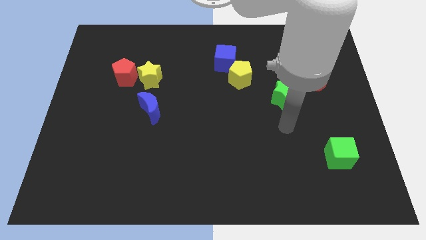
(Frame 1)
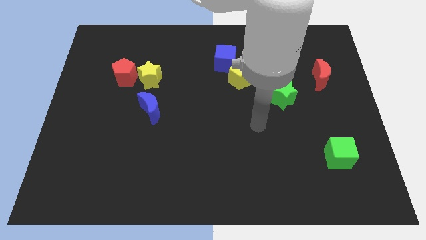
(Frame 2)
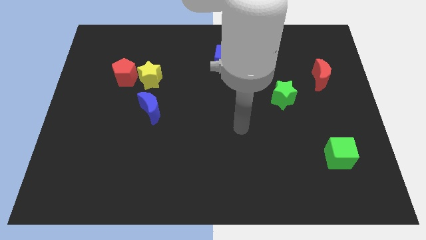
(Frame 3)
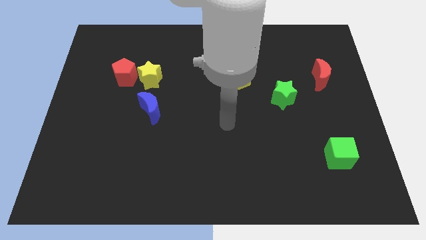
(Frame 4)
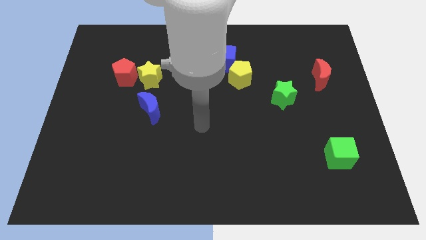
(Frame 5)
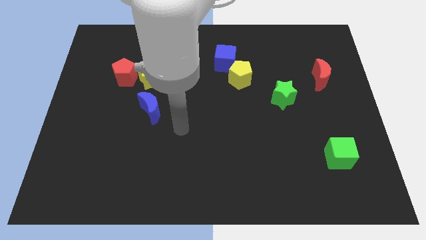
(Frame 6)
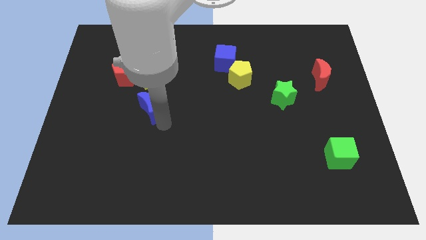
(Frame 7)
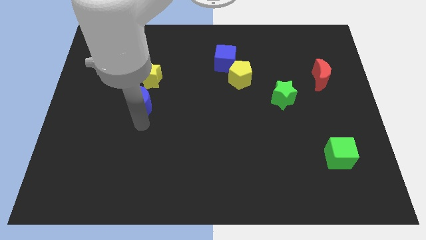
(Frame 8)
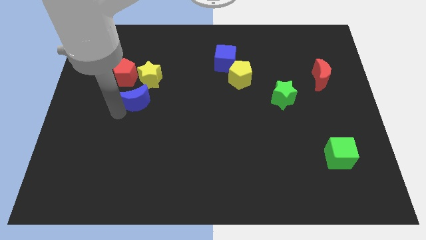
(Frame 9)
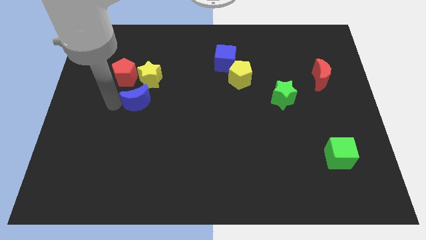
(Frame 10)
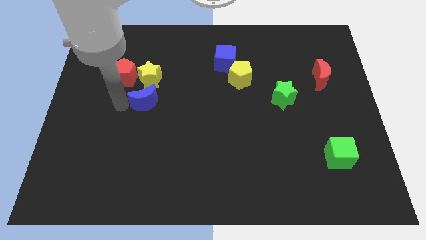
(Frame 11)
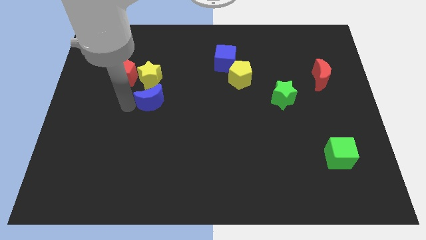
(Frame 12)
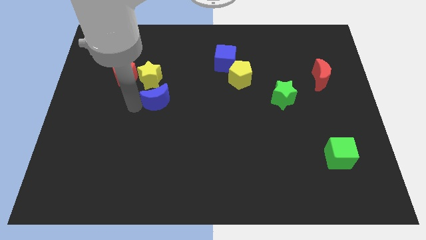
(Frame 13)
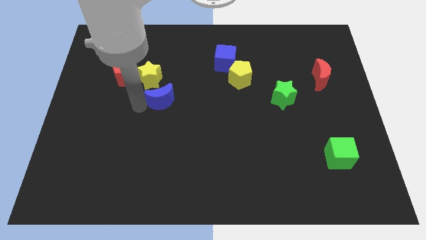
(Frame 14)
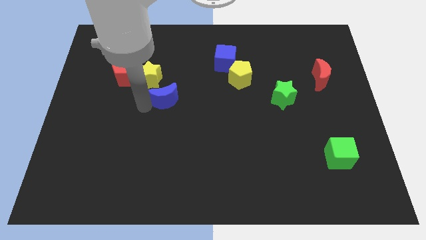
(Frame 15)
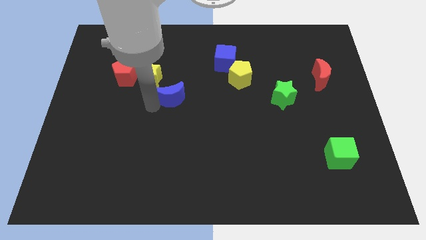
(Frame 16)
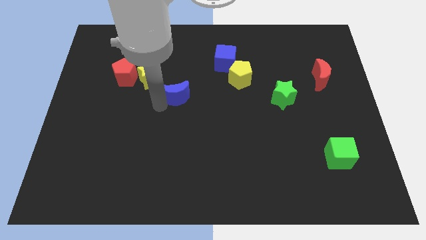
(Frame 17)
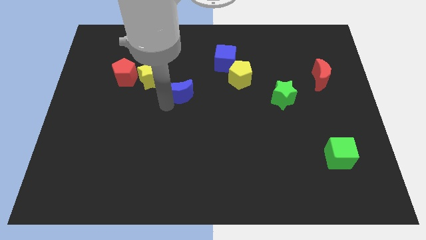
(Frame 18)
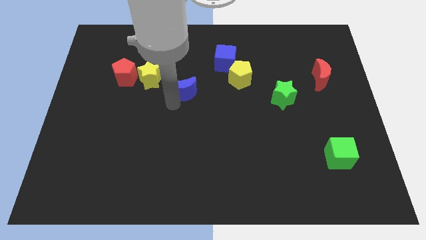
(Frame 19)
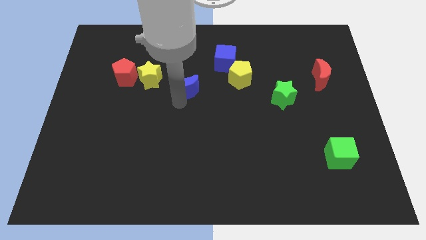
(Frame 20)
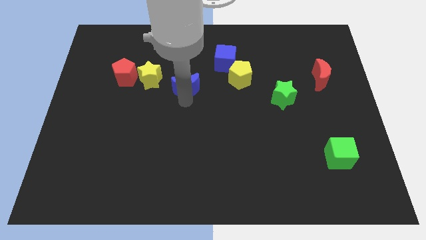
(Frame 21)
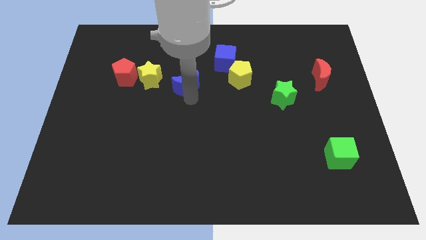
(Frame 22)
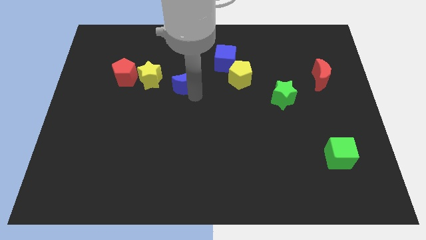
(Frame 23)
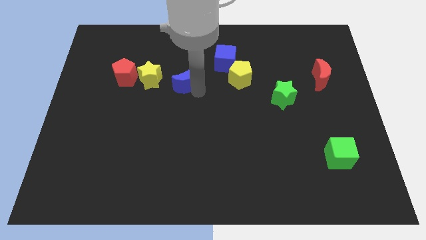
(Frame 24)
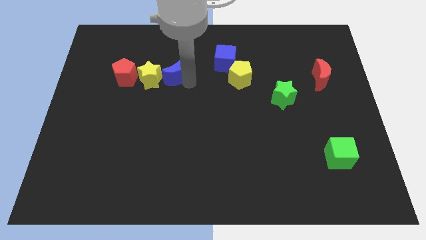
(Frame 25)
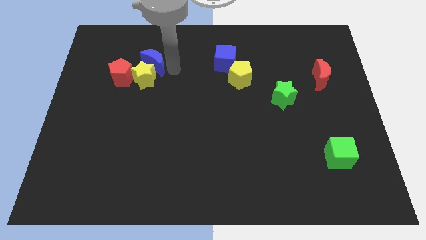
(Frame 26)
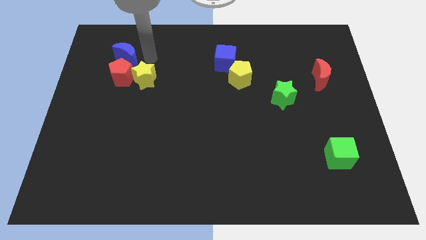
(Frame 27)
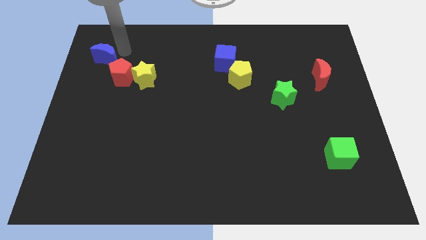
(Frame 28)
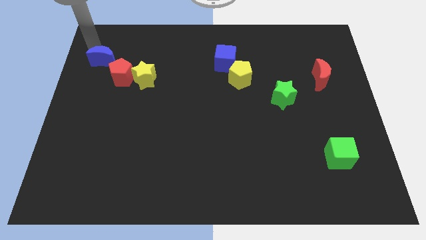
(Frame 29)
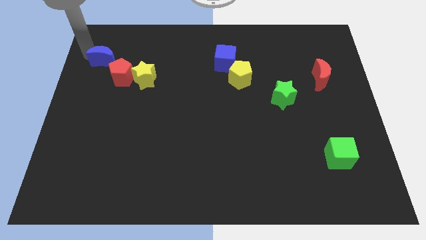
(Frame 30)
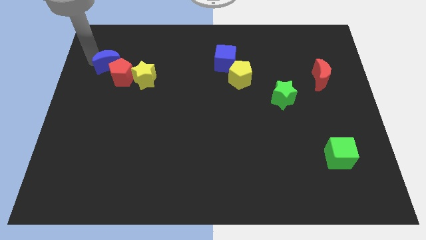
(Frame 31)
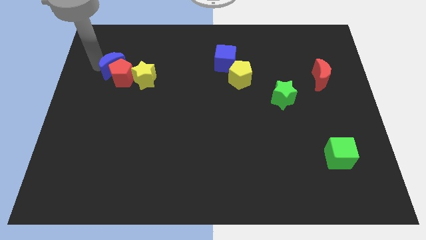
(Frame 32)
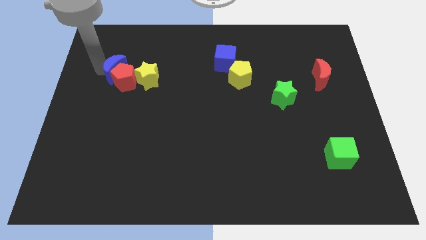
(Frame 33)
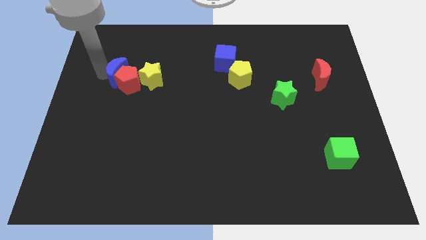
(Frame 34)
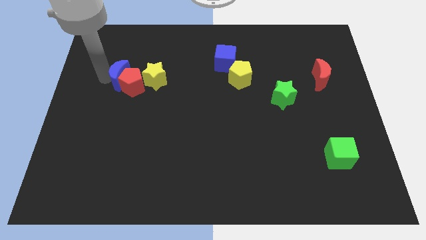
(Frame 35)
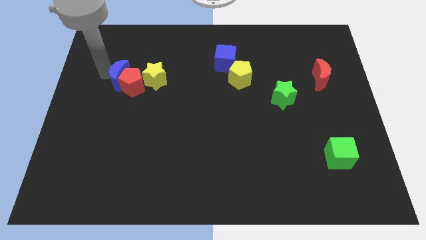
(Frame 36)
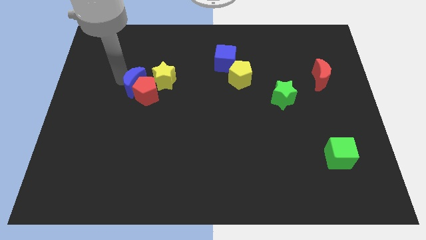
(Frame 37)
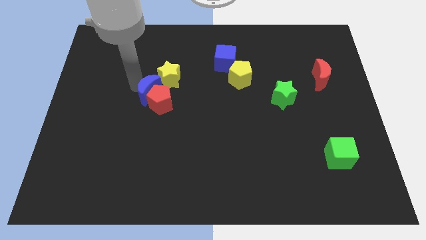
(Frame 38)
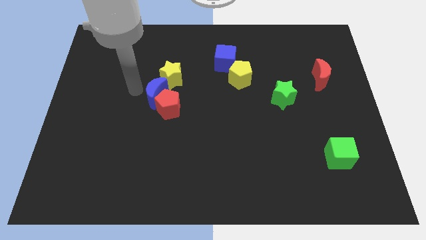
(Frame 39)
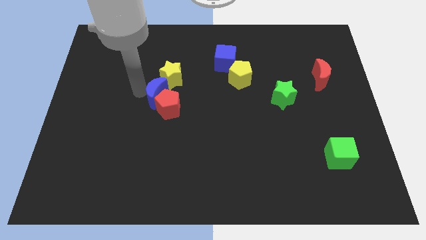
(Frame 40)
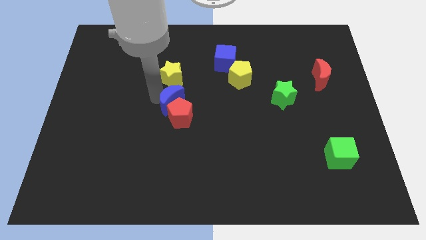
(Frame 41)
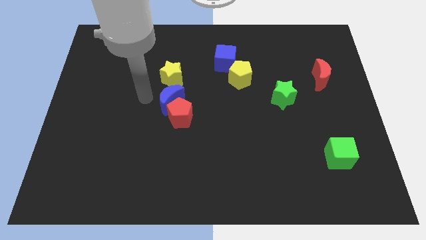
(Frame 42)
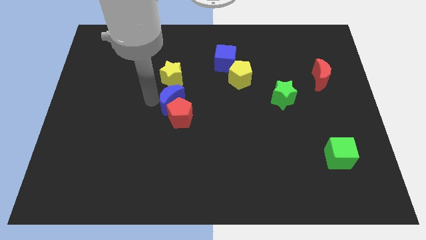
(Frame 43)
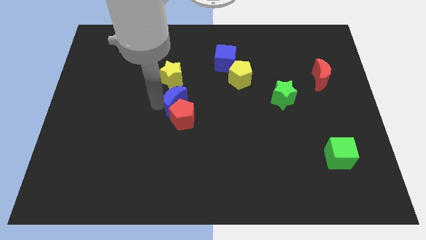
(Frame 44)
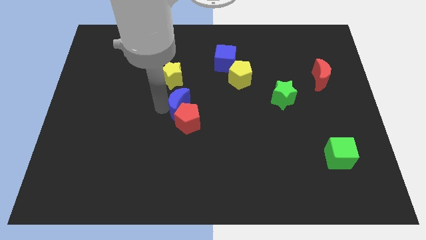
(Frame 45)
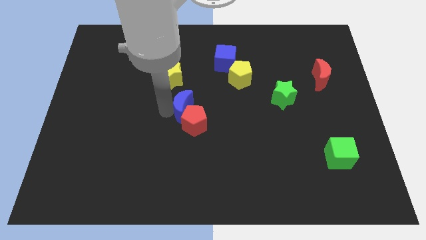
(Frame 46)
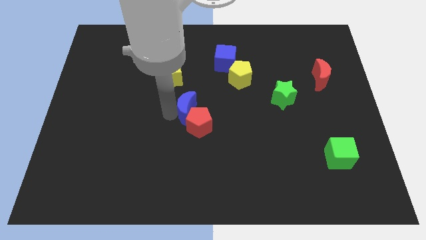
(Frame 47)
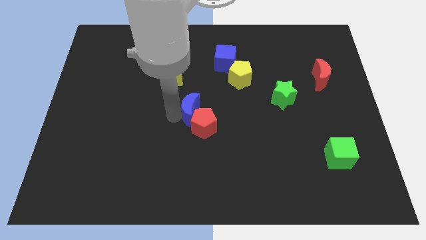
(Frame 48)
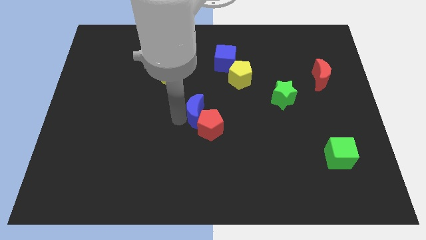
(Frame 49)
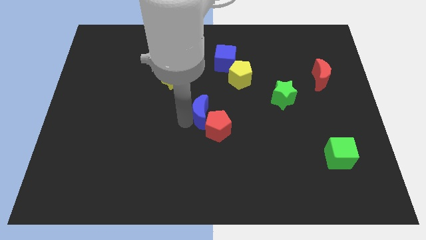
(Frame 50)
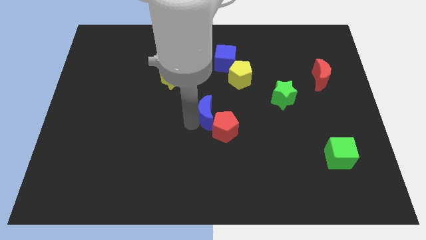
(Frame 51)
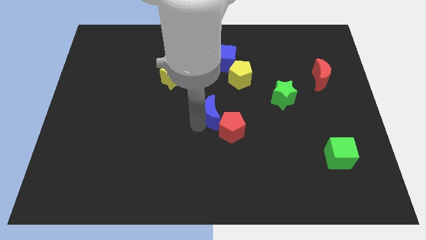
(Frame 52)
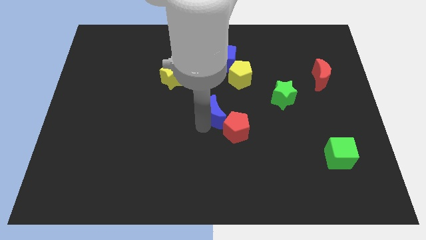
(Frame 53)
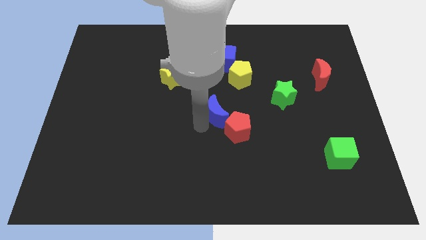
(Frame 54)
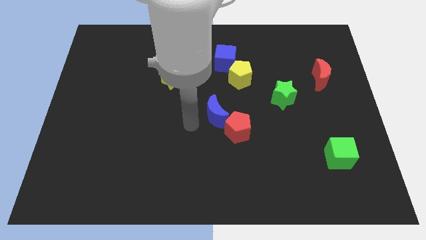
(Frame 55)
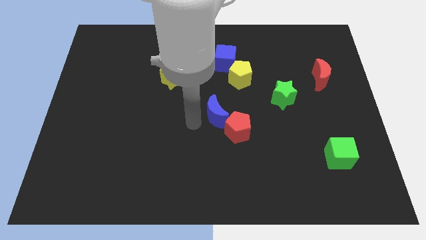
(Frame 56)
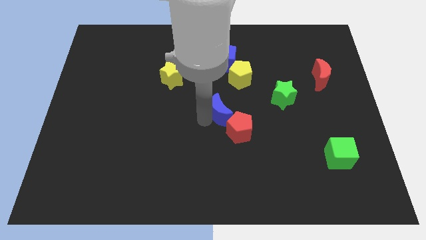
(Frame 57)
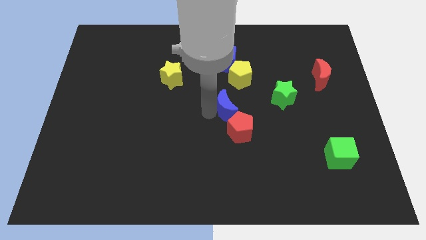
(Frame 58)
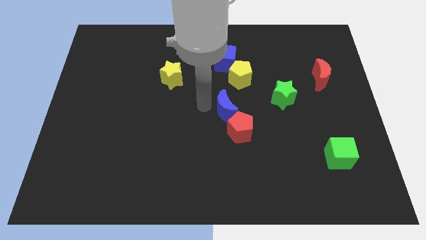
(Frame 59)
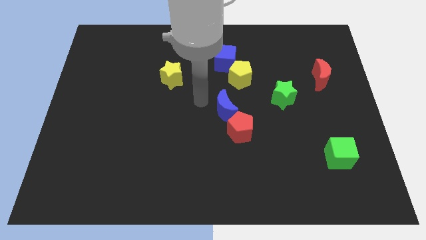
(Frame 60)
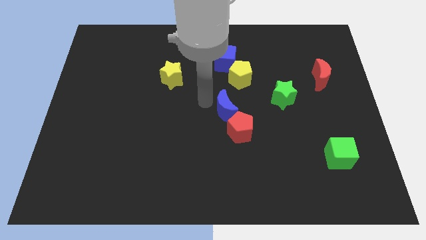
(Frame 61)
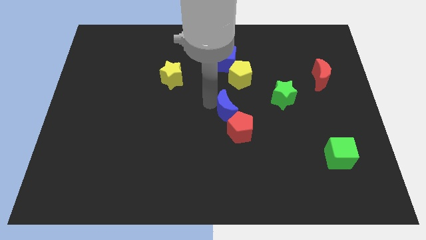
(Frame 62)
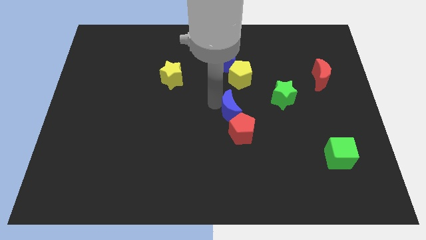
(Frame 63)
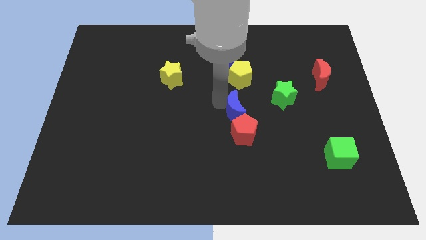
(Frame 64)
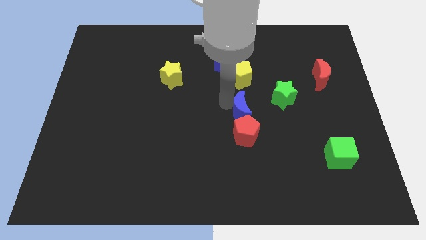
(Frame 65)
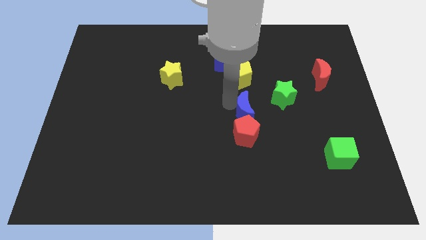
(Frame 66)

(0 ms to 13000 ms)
put the blue moon to the bottom left side of the green star
